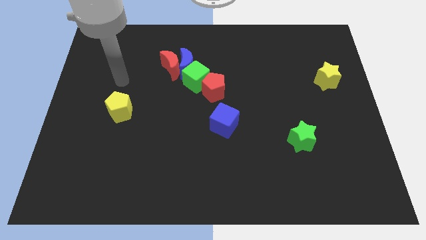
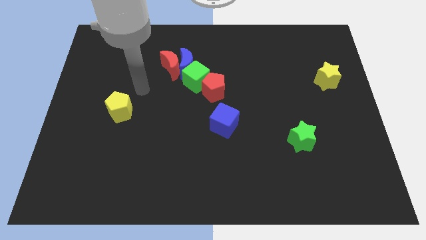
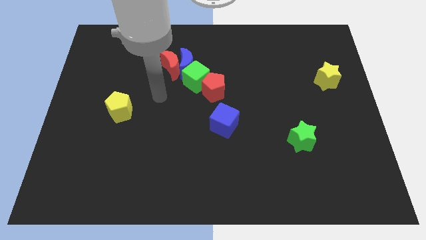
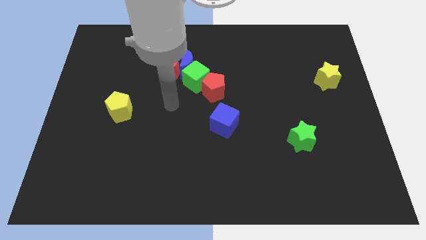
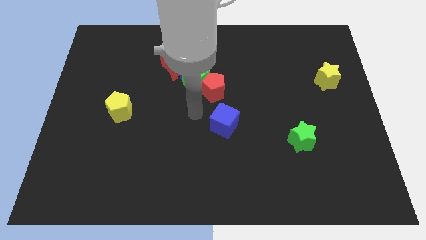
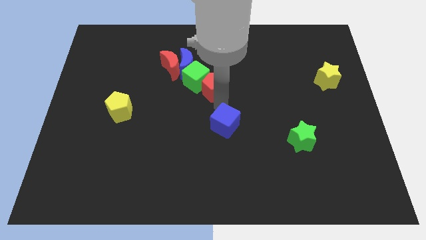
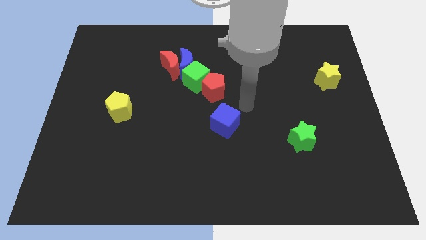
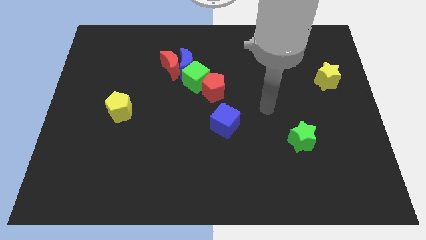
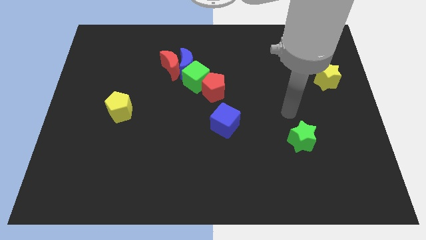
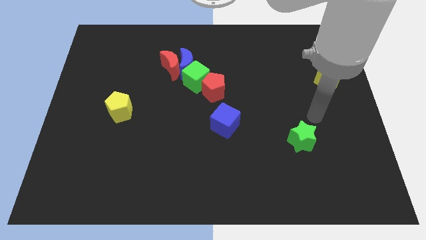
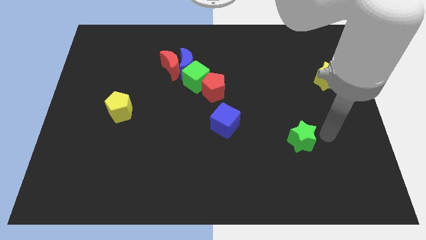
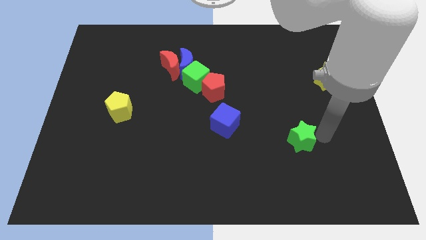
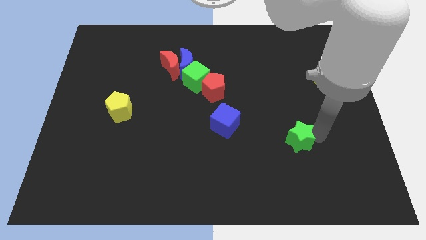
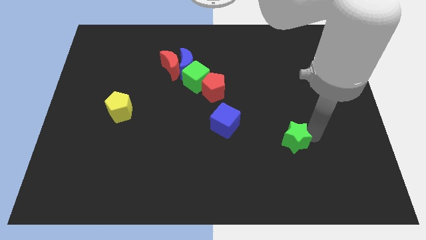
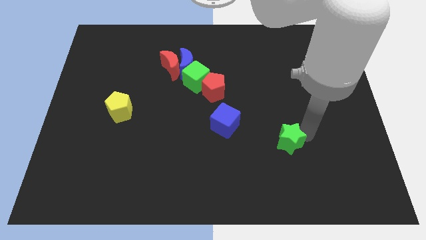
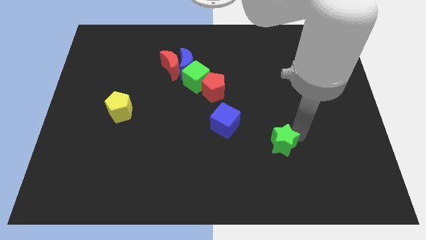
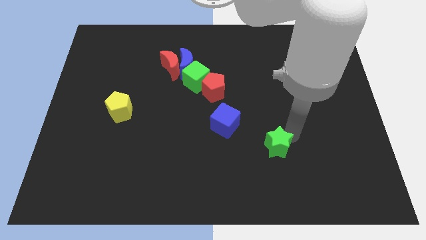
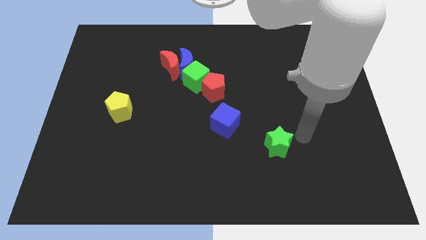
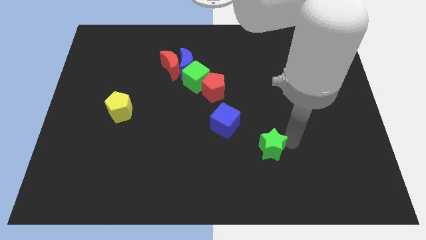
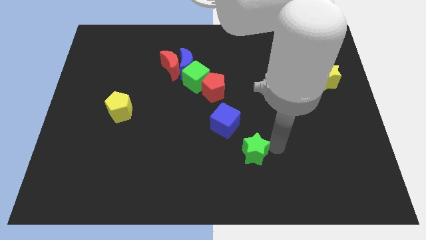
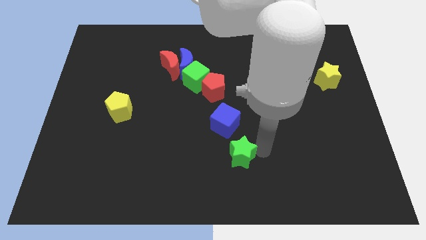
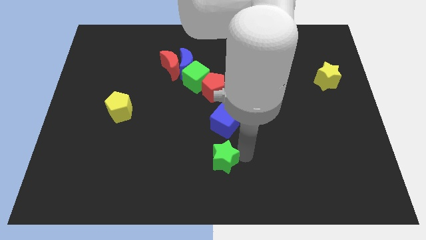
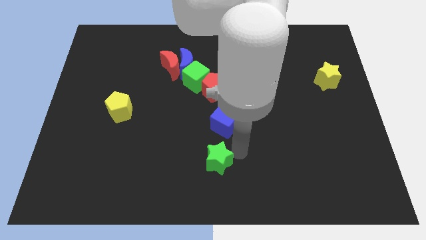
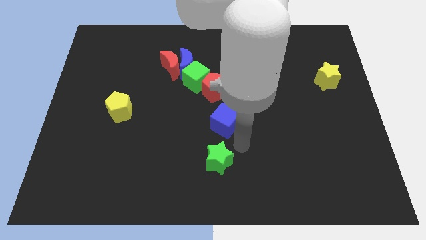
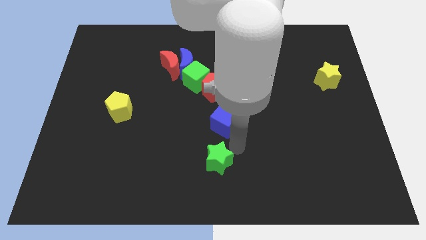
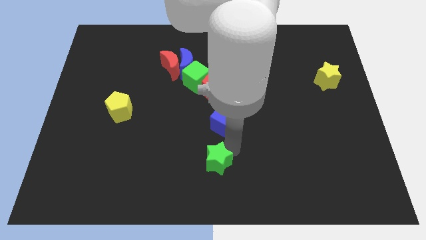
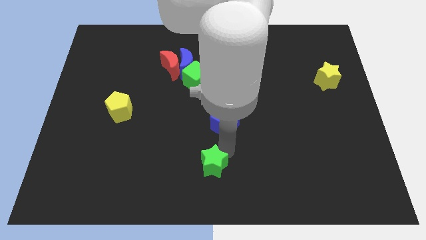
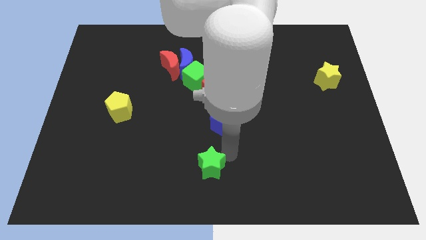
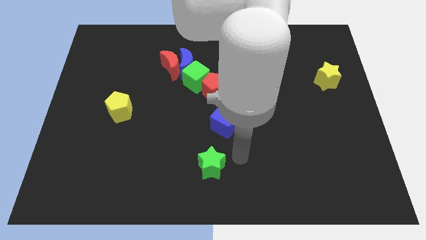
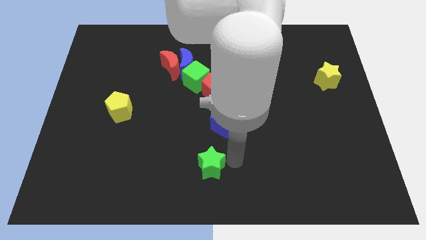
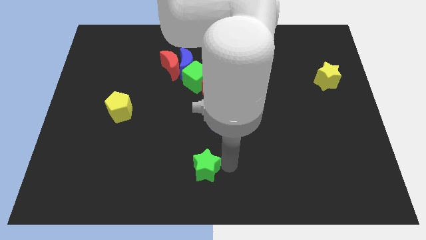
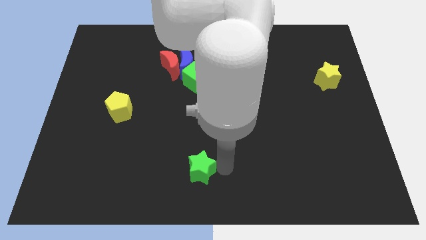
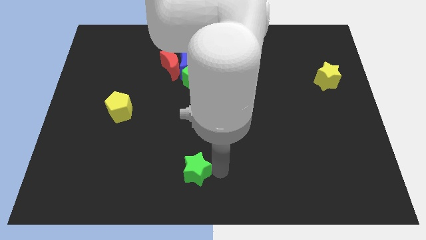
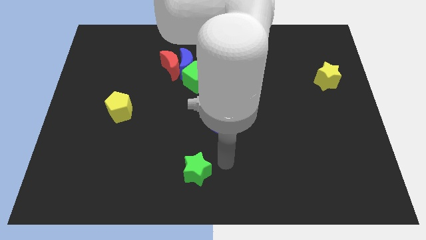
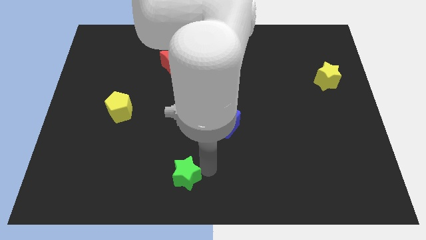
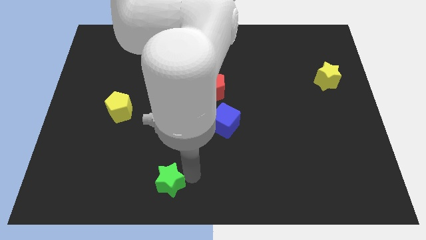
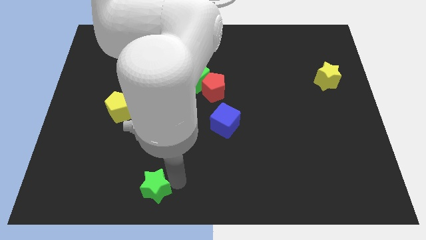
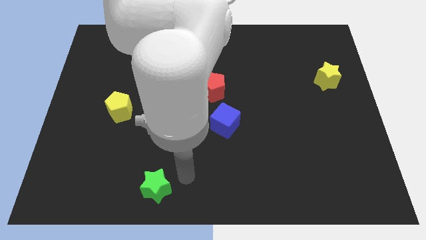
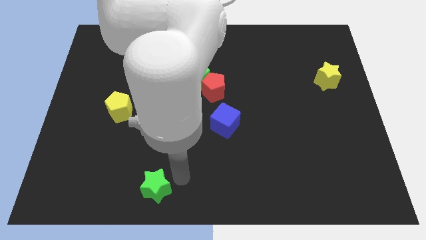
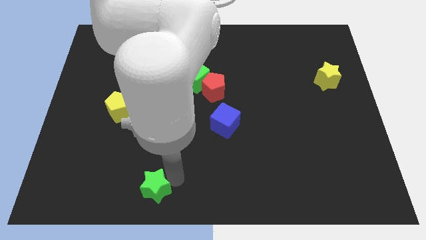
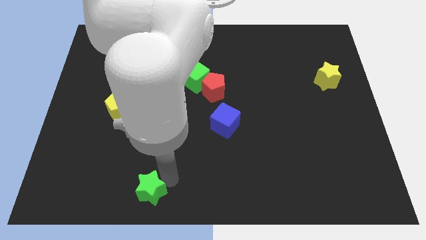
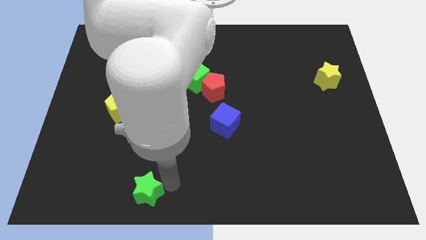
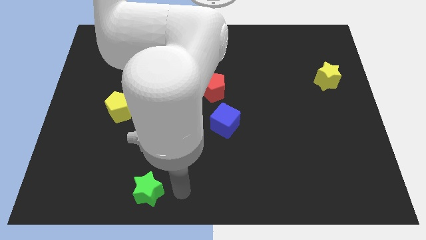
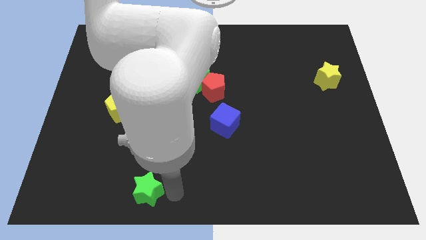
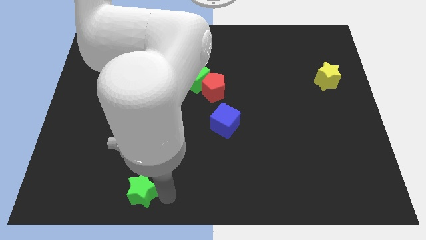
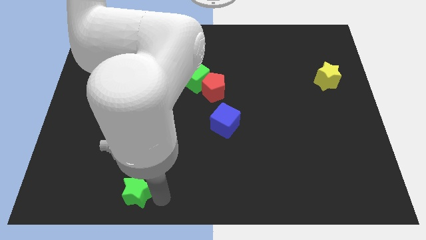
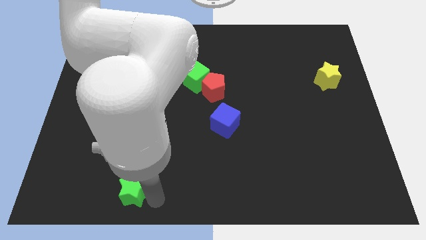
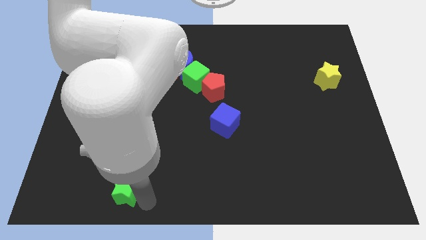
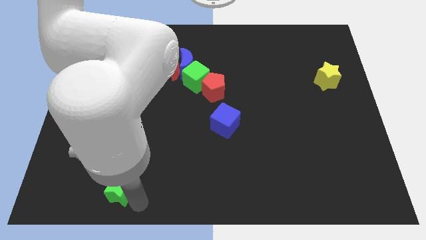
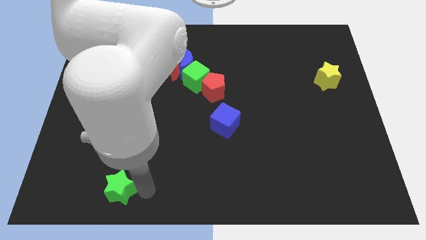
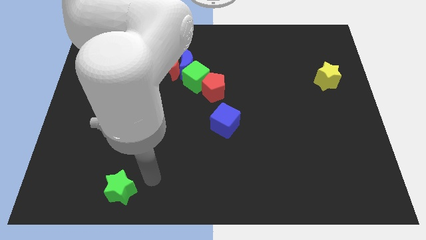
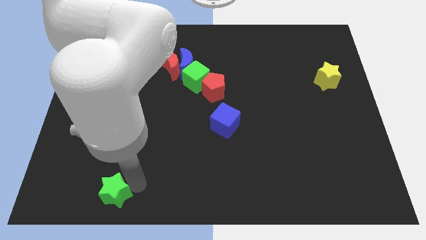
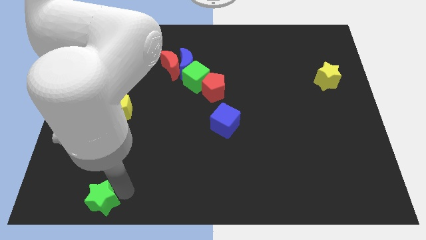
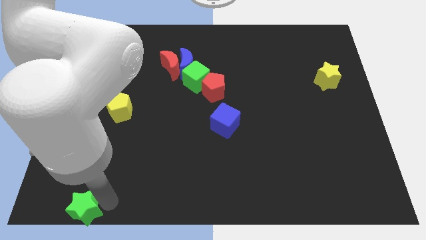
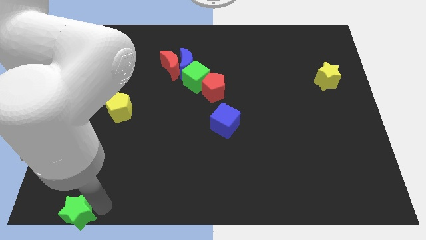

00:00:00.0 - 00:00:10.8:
put the green star to the bottom left corner

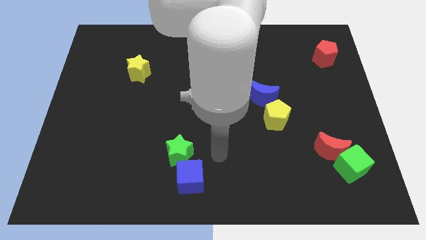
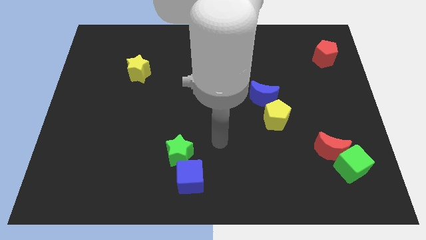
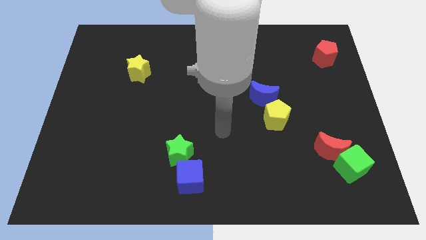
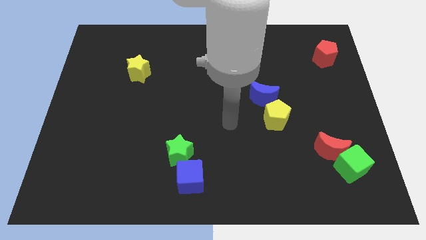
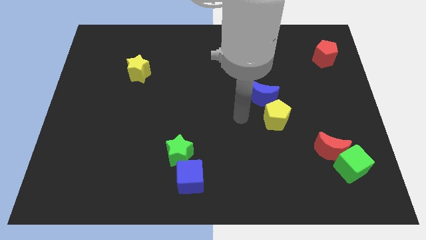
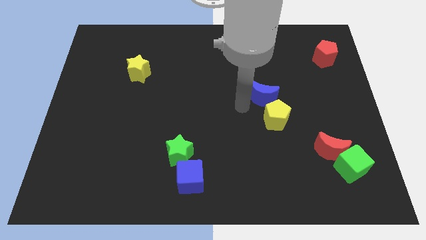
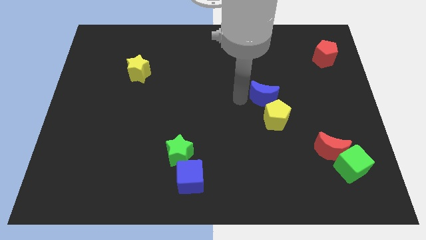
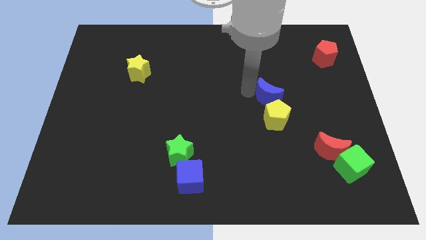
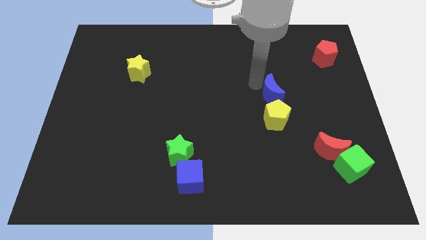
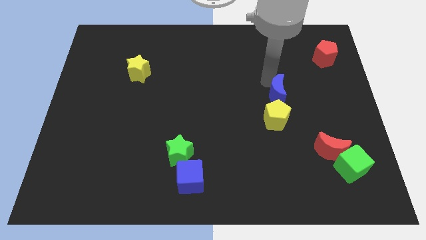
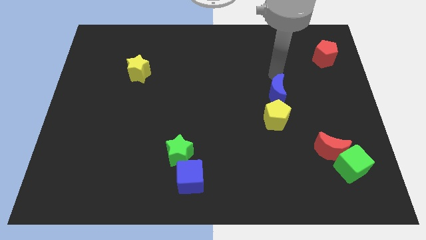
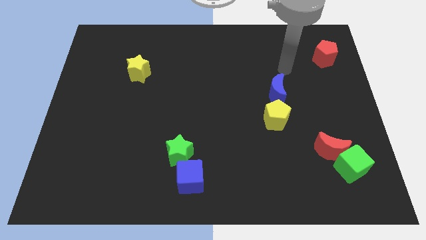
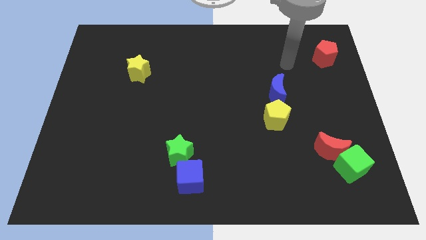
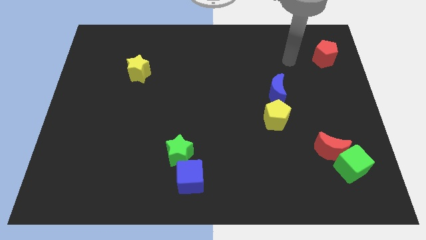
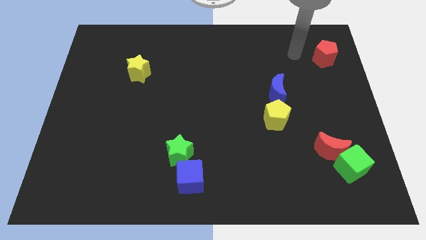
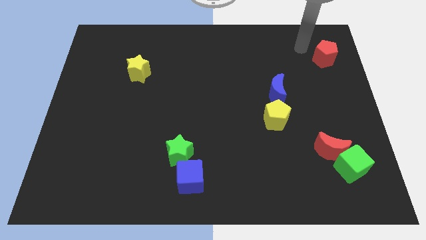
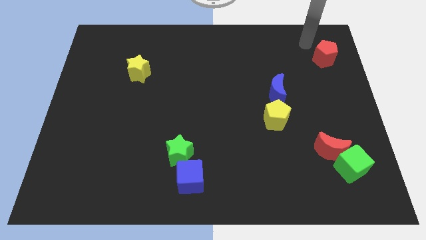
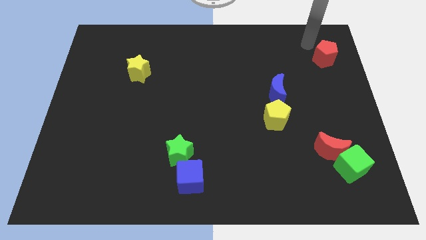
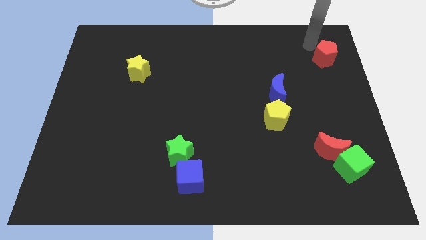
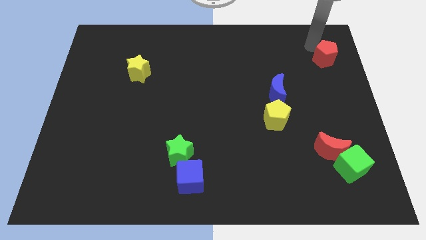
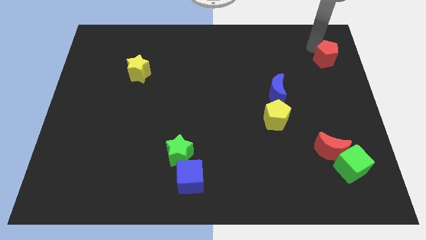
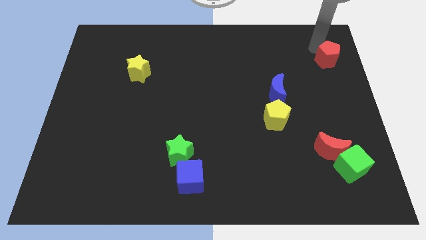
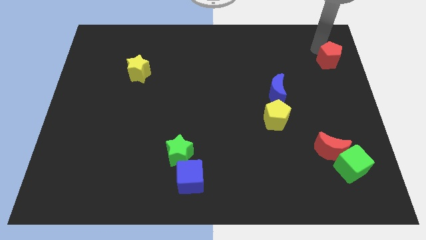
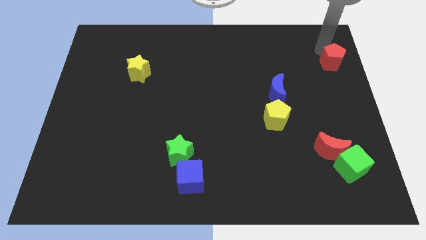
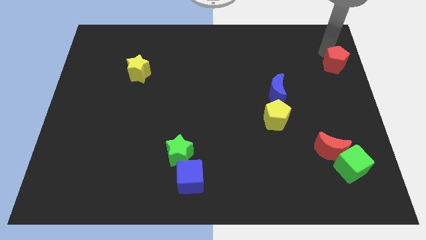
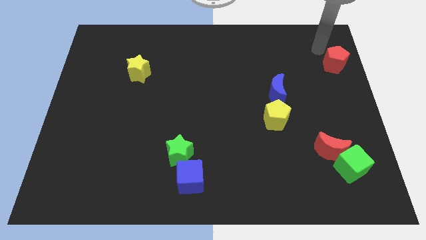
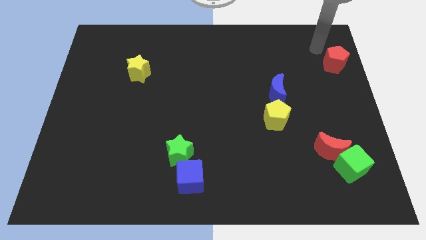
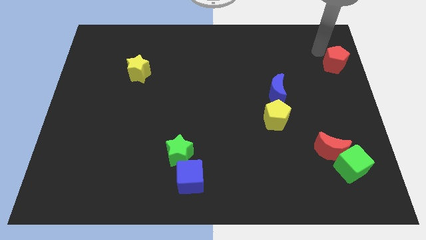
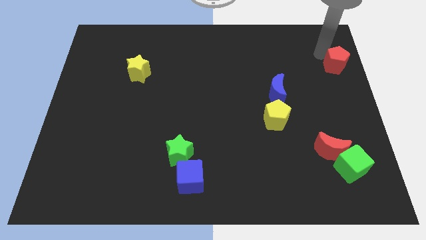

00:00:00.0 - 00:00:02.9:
slide the red pentagon to the center right
